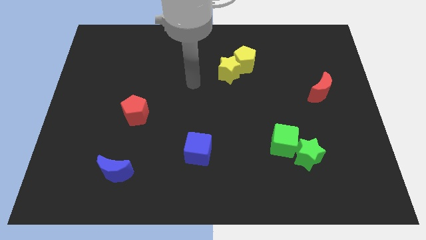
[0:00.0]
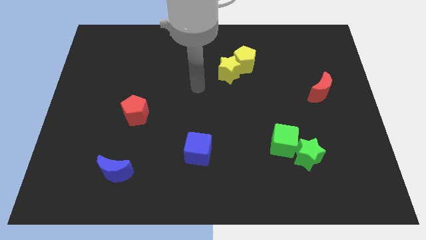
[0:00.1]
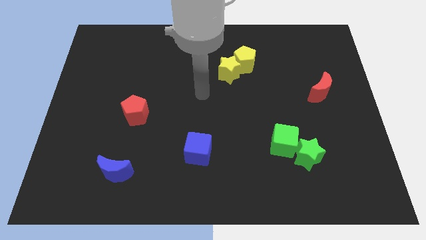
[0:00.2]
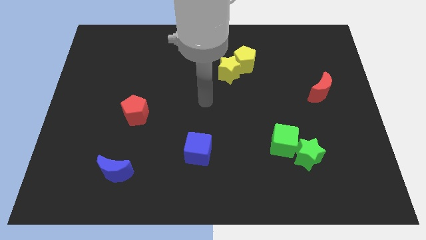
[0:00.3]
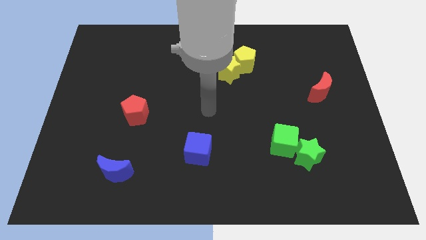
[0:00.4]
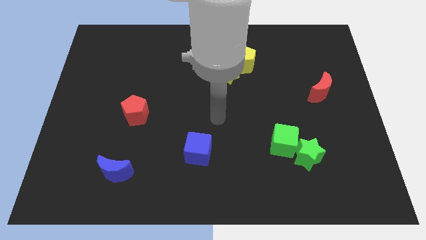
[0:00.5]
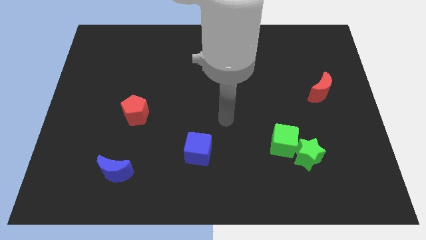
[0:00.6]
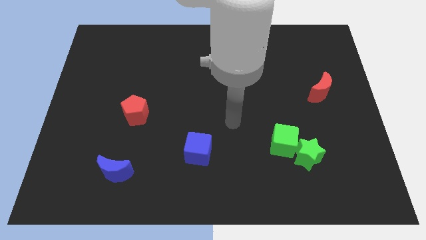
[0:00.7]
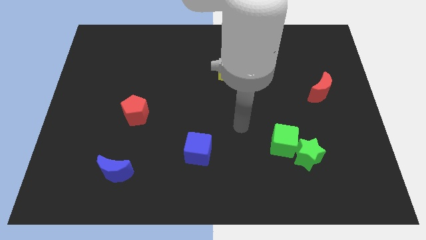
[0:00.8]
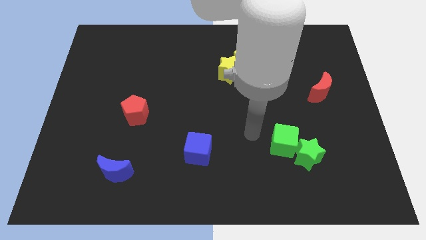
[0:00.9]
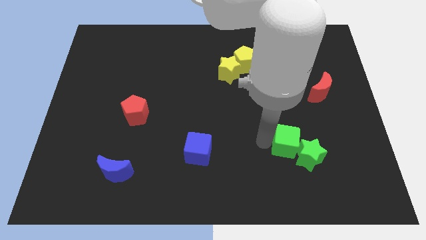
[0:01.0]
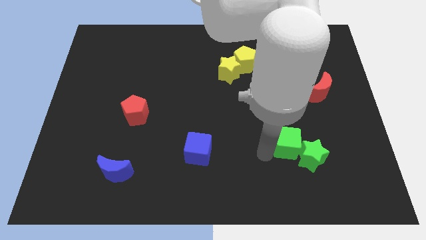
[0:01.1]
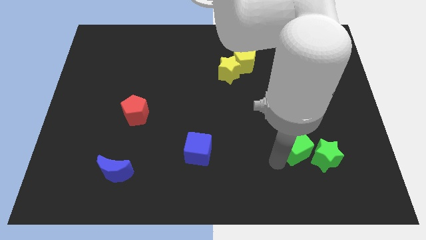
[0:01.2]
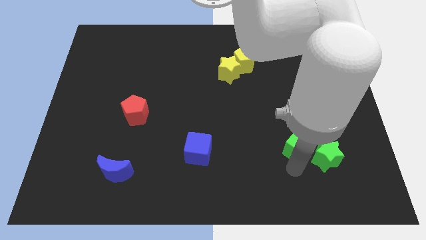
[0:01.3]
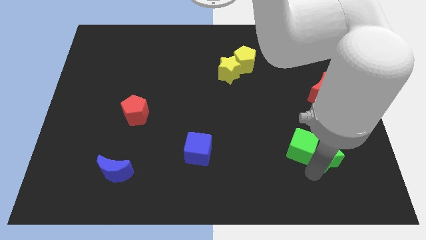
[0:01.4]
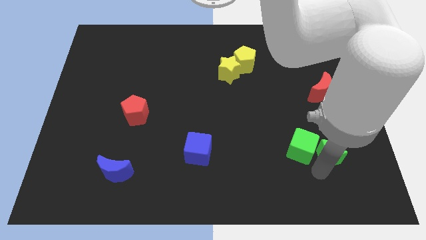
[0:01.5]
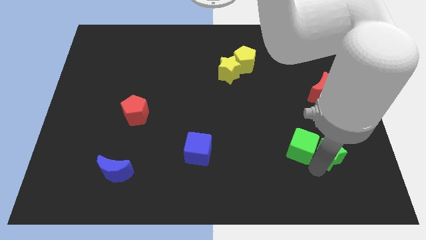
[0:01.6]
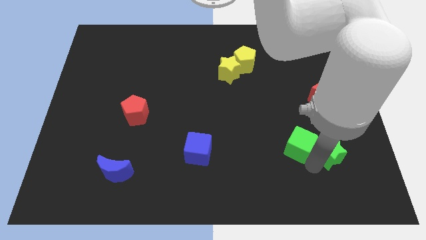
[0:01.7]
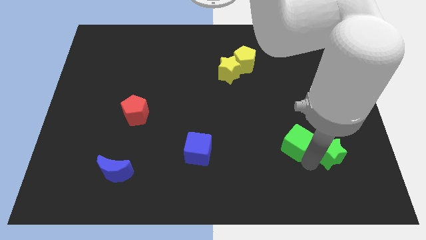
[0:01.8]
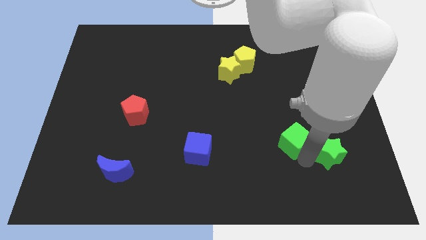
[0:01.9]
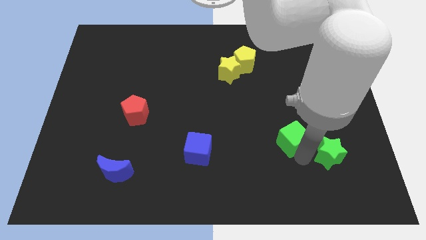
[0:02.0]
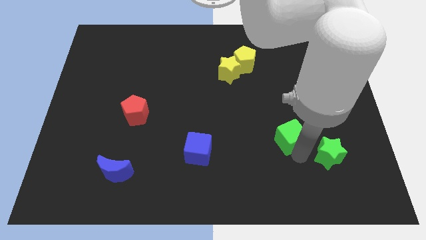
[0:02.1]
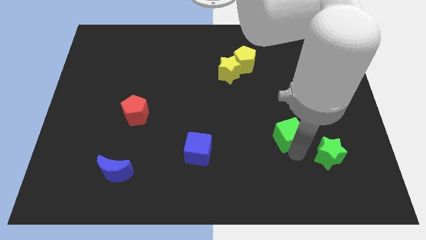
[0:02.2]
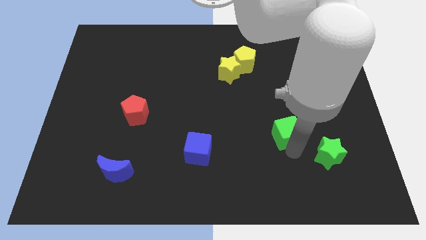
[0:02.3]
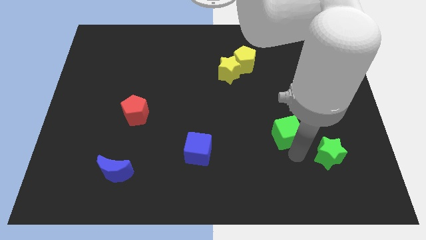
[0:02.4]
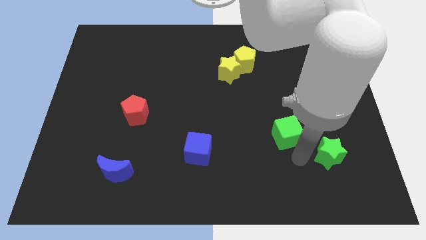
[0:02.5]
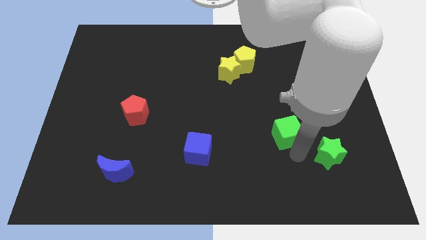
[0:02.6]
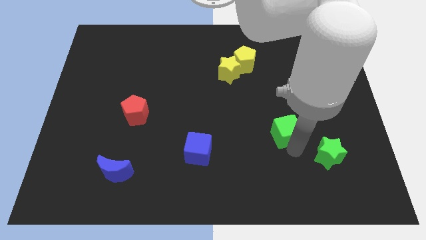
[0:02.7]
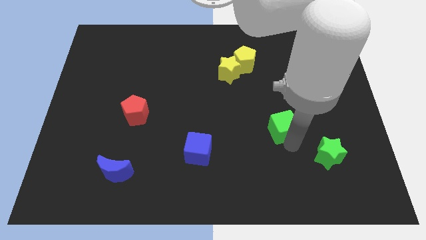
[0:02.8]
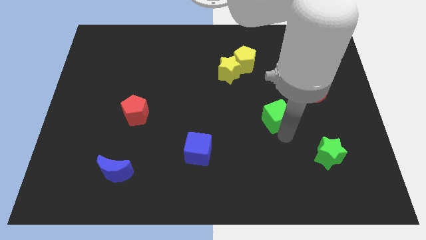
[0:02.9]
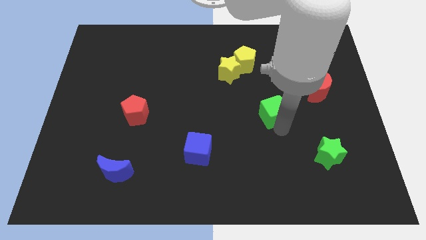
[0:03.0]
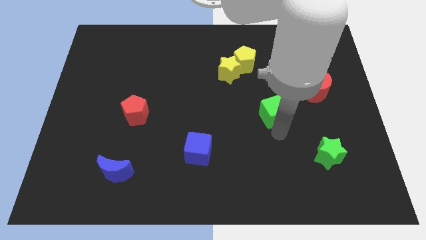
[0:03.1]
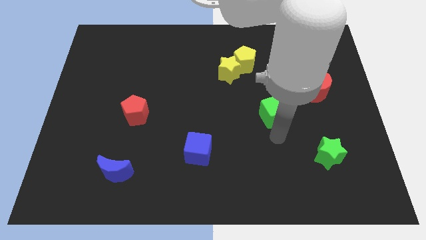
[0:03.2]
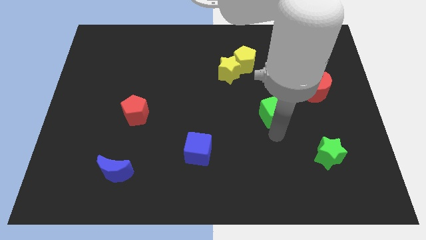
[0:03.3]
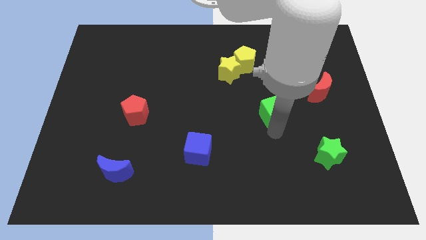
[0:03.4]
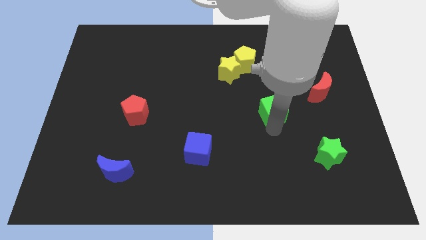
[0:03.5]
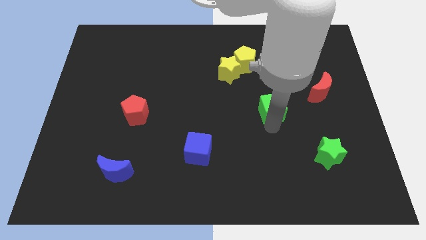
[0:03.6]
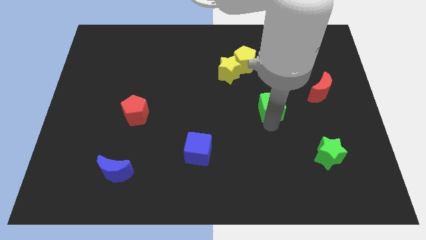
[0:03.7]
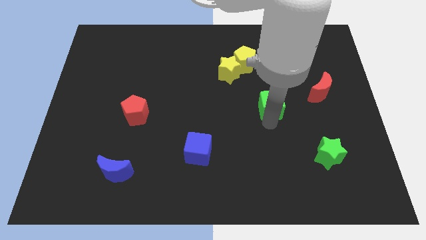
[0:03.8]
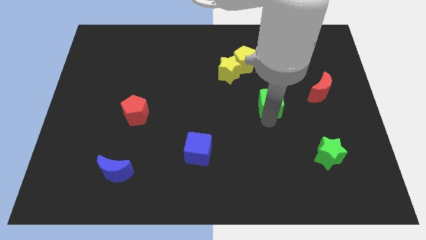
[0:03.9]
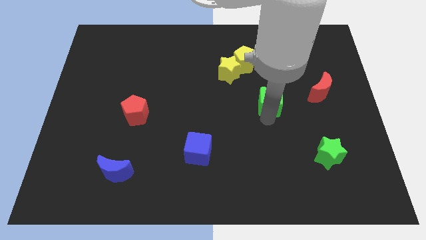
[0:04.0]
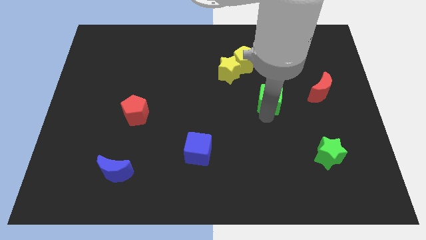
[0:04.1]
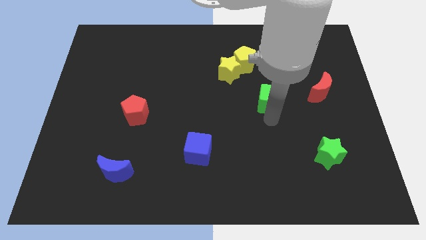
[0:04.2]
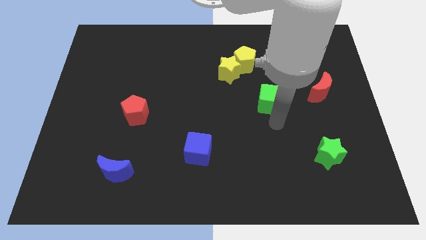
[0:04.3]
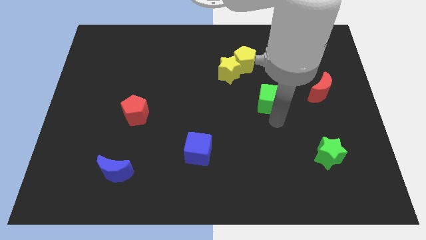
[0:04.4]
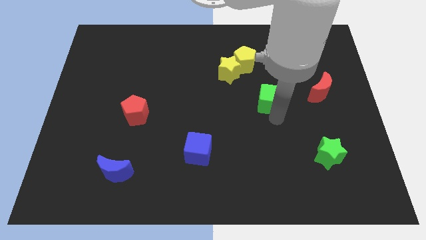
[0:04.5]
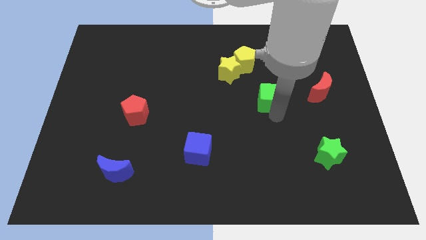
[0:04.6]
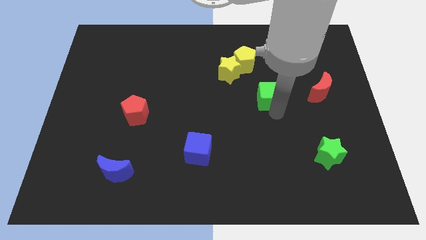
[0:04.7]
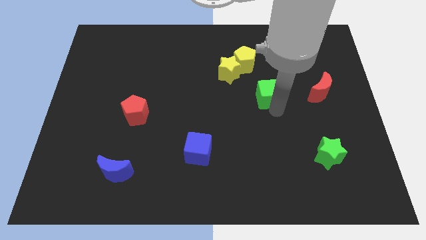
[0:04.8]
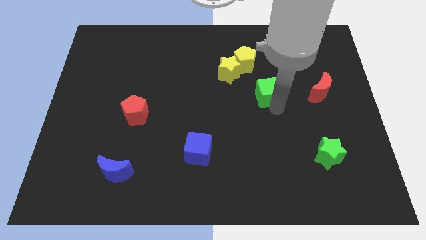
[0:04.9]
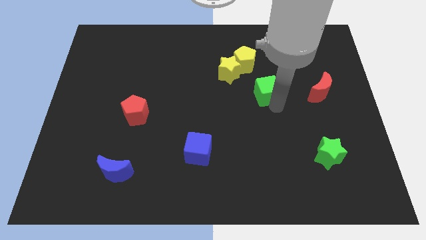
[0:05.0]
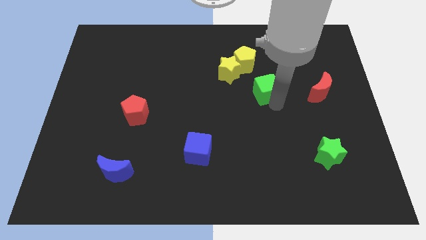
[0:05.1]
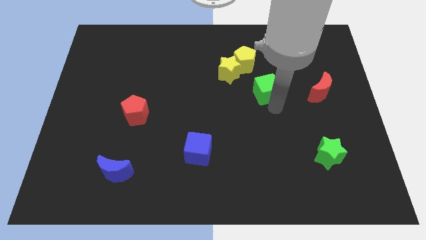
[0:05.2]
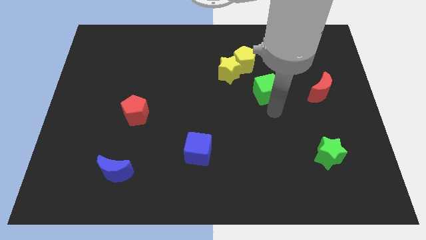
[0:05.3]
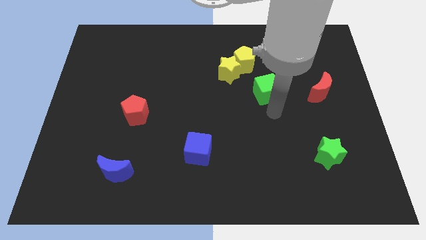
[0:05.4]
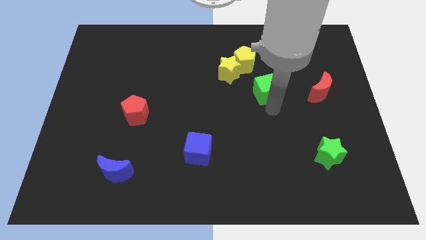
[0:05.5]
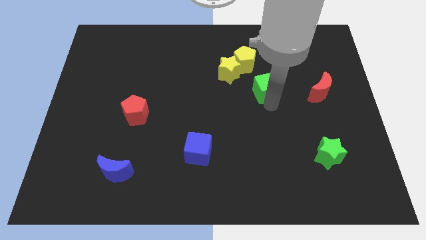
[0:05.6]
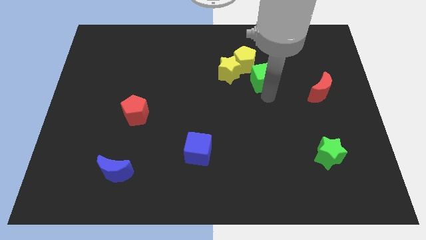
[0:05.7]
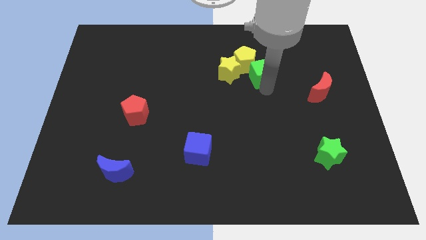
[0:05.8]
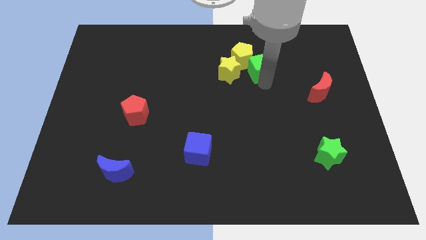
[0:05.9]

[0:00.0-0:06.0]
put the green cube to the top right side of the yellow star

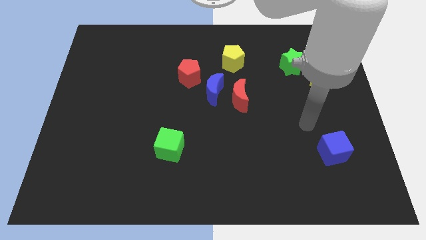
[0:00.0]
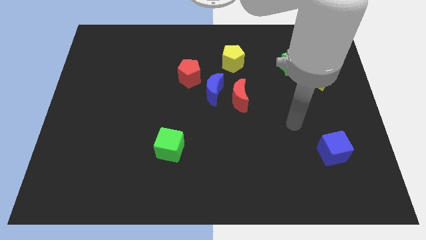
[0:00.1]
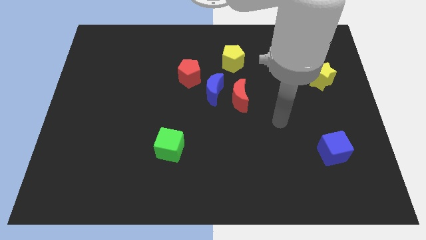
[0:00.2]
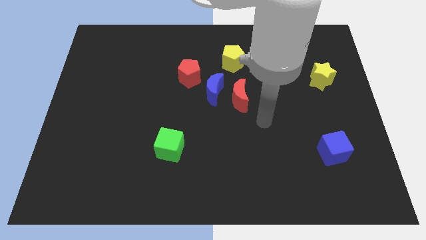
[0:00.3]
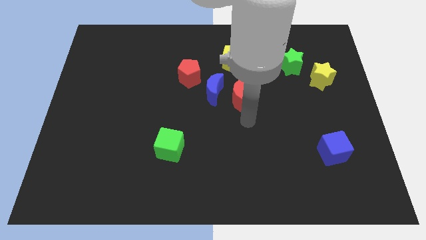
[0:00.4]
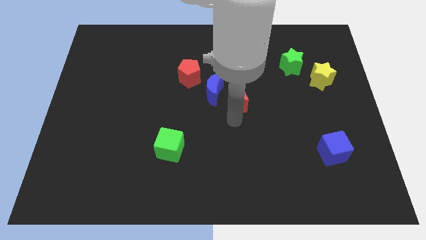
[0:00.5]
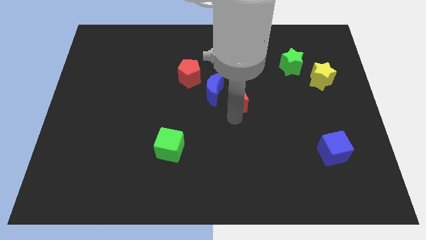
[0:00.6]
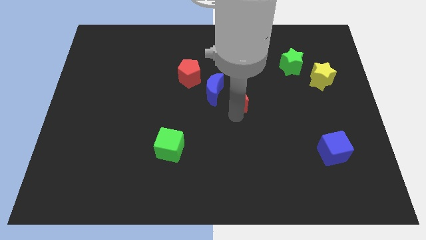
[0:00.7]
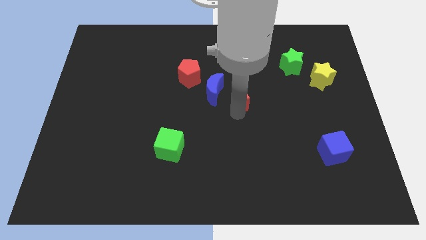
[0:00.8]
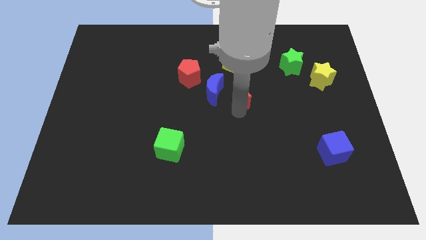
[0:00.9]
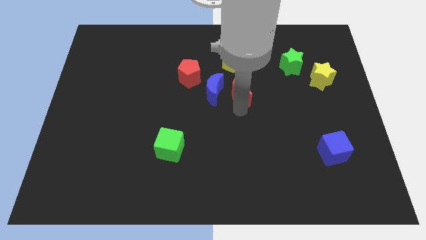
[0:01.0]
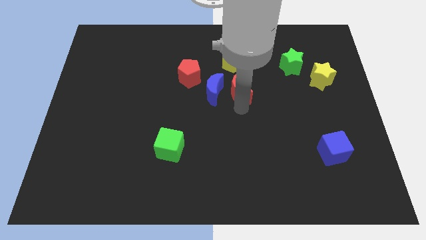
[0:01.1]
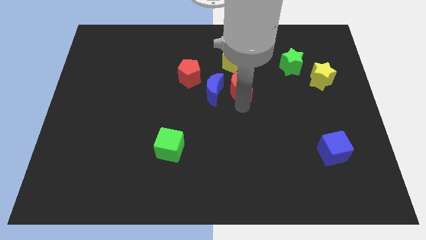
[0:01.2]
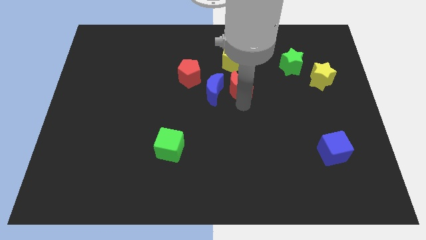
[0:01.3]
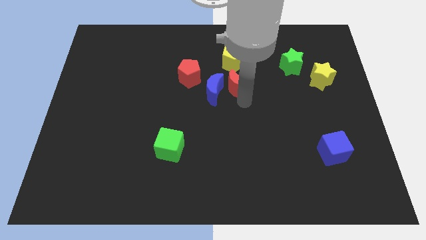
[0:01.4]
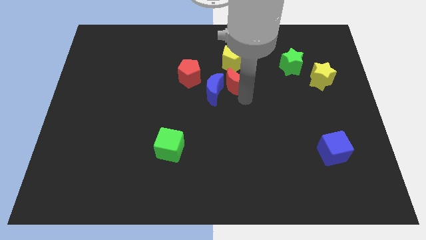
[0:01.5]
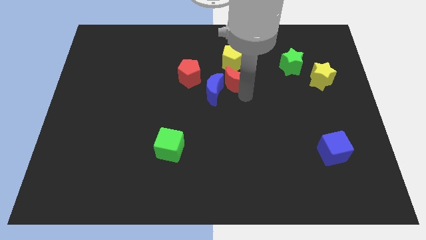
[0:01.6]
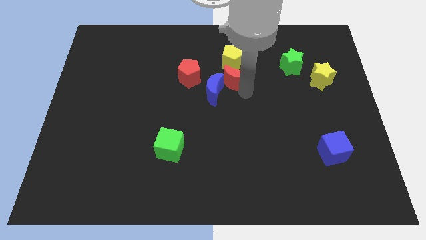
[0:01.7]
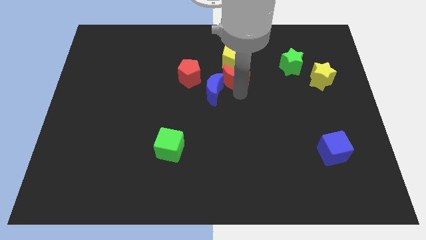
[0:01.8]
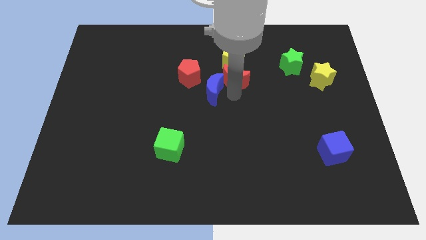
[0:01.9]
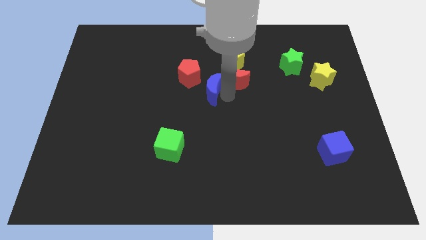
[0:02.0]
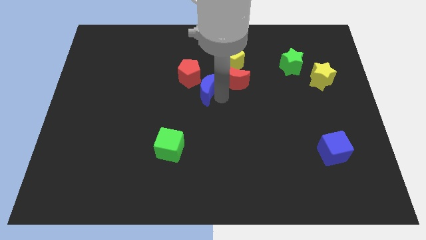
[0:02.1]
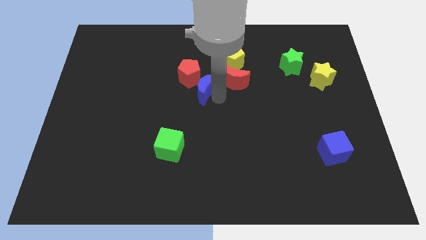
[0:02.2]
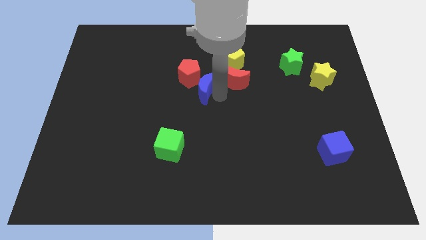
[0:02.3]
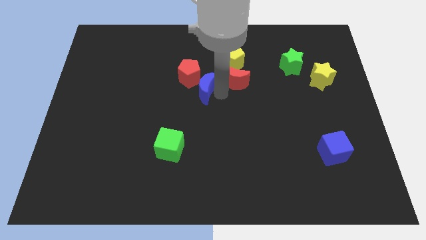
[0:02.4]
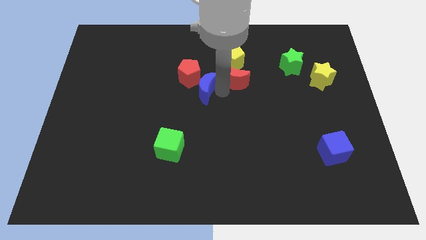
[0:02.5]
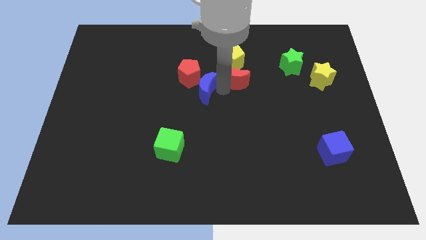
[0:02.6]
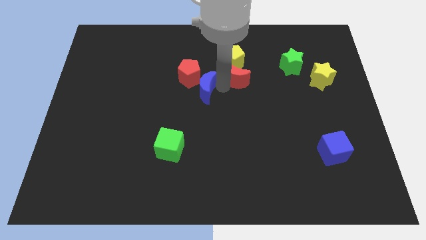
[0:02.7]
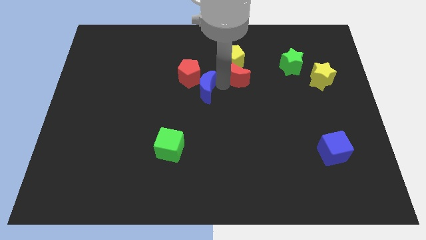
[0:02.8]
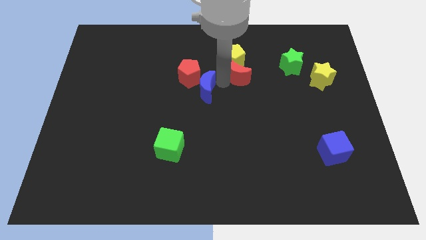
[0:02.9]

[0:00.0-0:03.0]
put the red moon to the left of the green star
